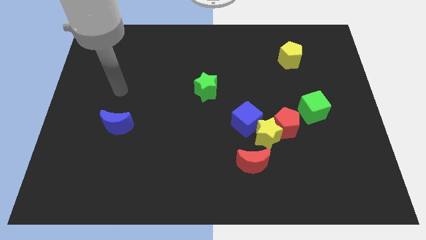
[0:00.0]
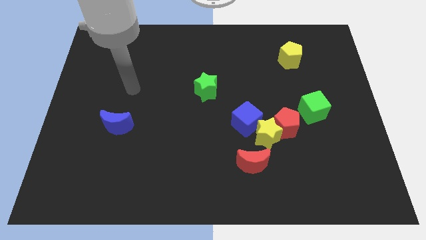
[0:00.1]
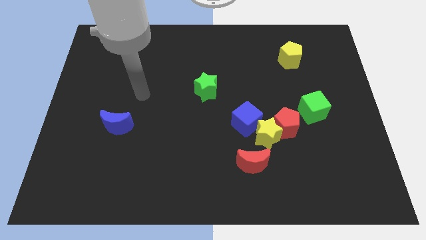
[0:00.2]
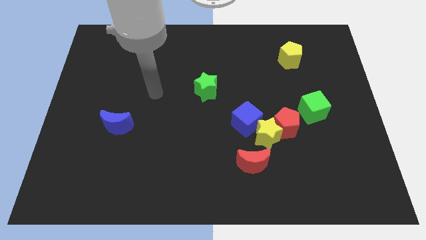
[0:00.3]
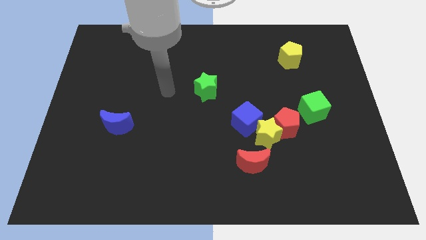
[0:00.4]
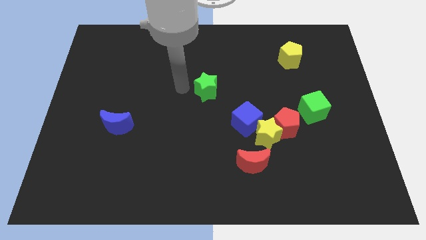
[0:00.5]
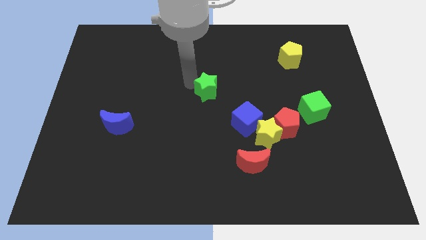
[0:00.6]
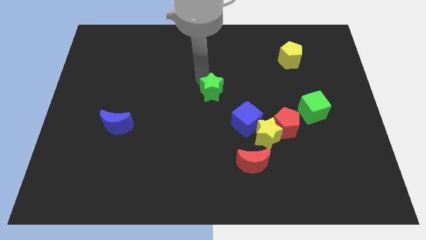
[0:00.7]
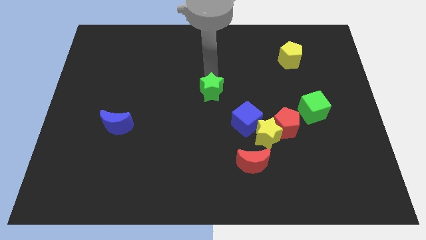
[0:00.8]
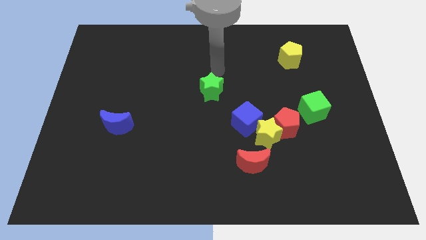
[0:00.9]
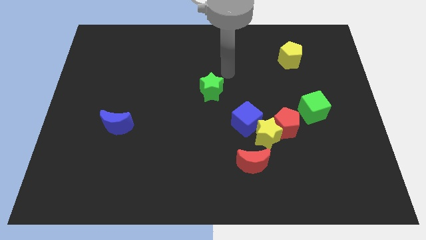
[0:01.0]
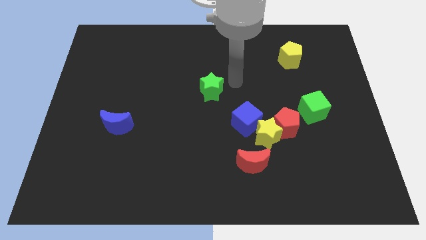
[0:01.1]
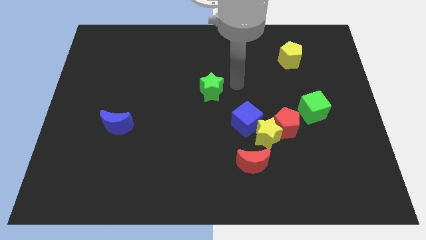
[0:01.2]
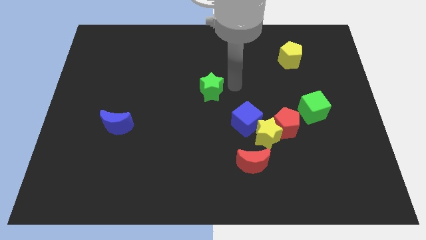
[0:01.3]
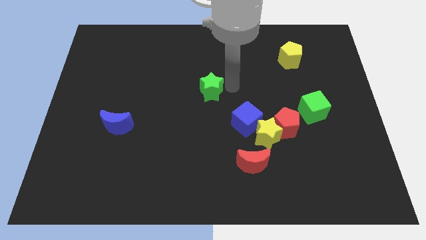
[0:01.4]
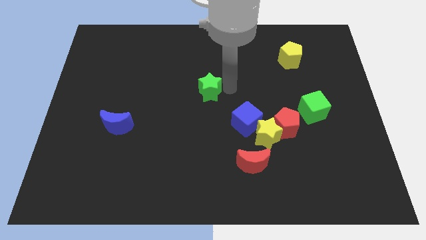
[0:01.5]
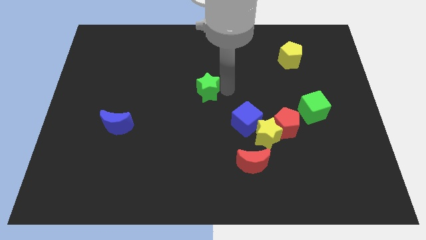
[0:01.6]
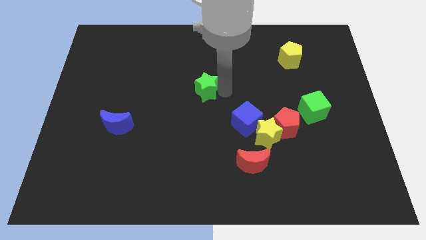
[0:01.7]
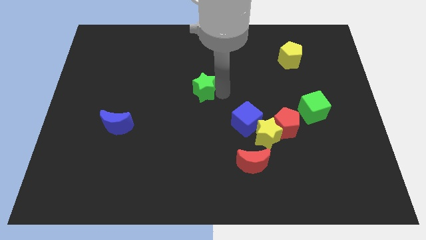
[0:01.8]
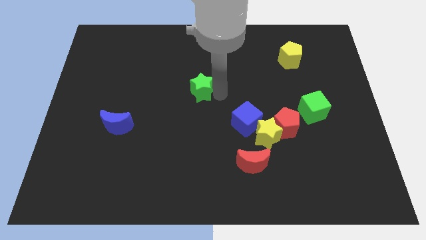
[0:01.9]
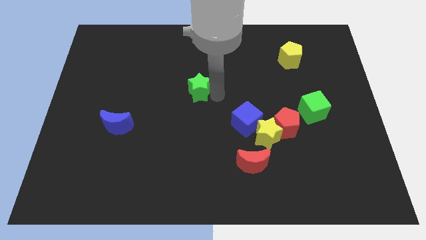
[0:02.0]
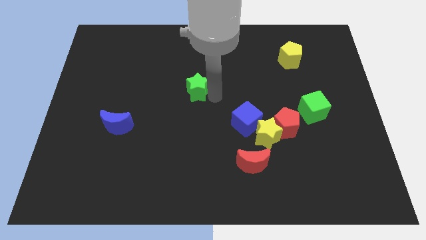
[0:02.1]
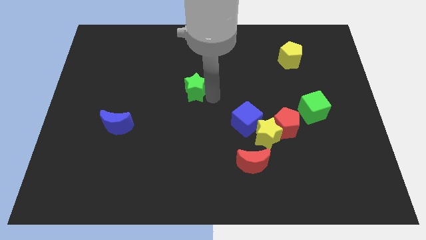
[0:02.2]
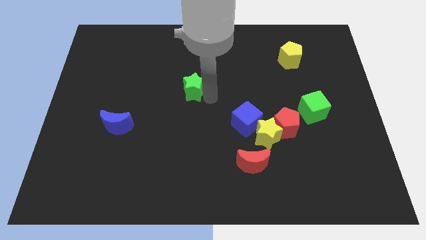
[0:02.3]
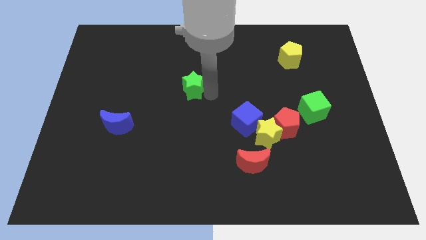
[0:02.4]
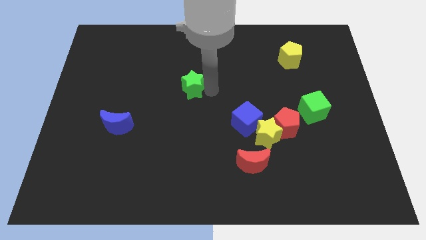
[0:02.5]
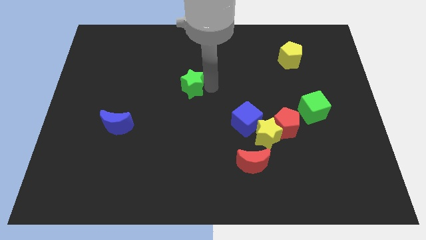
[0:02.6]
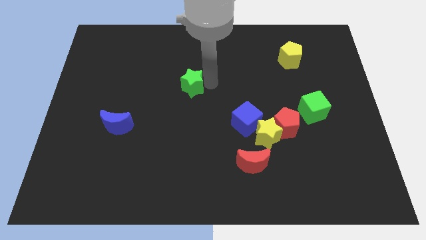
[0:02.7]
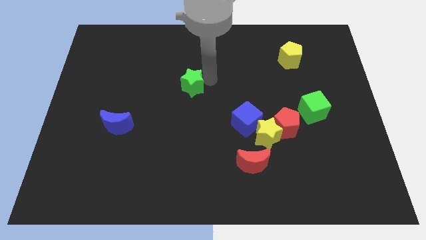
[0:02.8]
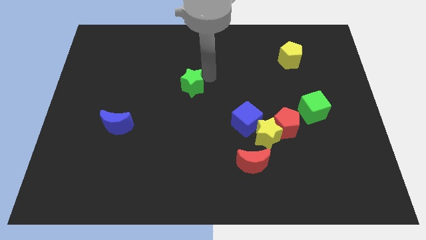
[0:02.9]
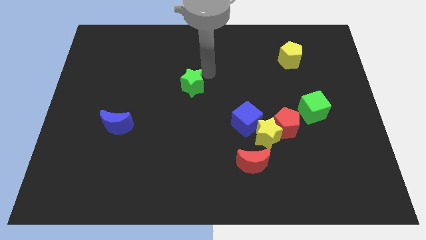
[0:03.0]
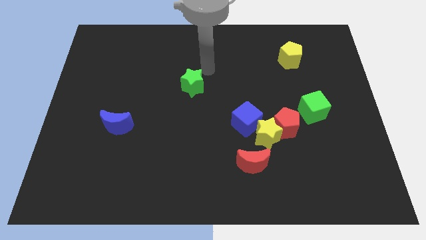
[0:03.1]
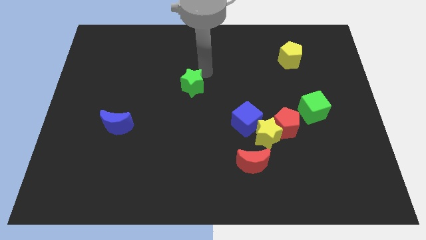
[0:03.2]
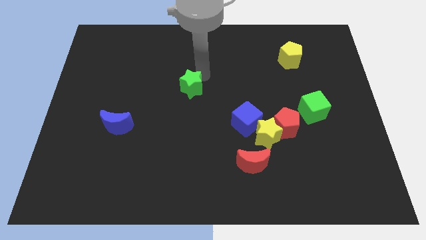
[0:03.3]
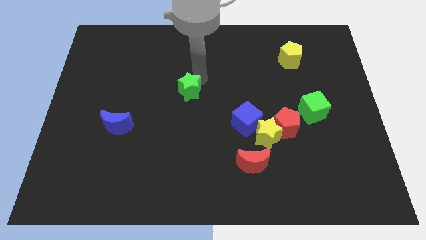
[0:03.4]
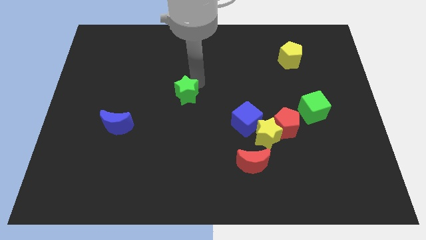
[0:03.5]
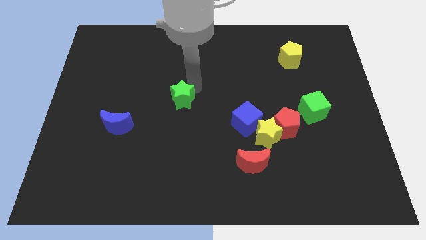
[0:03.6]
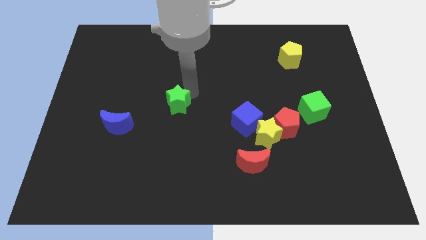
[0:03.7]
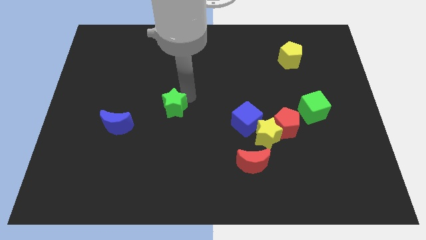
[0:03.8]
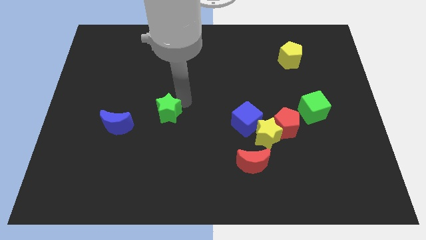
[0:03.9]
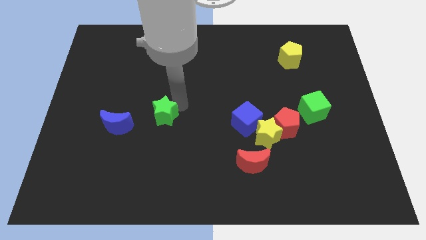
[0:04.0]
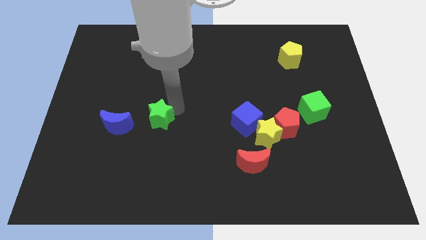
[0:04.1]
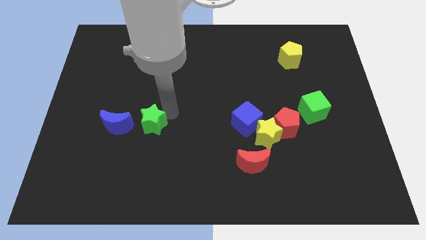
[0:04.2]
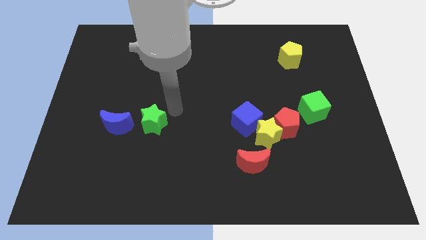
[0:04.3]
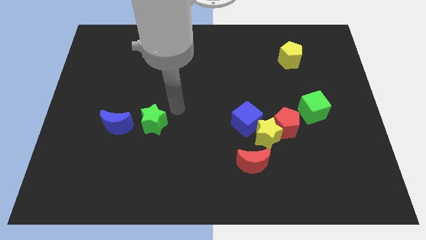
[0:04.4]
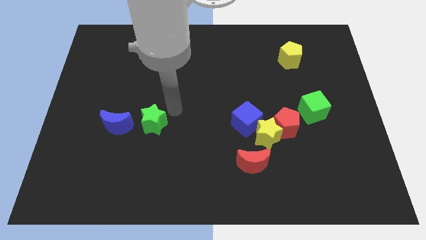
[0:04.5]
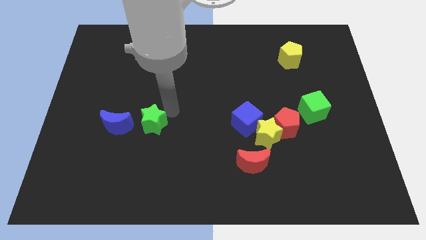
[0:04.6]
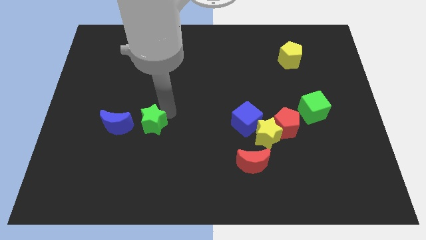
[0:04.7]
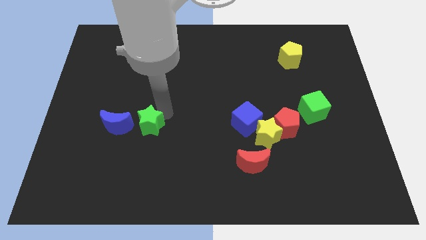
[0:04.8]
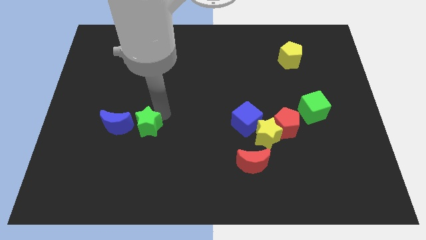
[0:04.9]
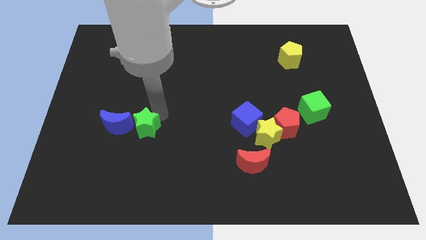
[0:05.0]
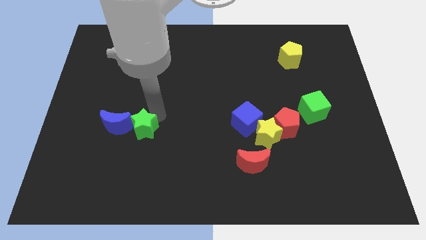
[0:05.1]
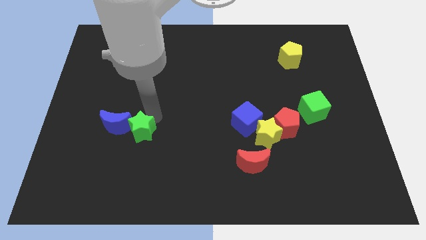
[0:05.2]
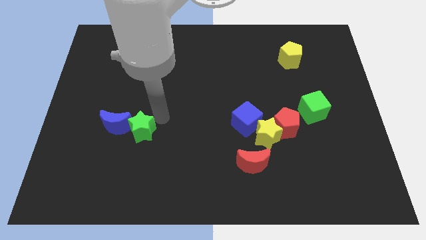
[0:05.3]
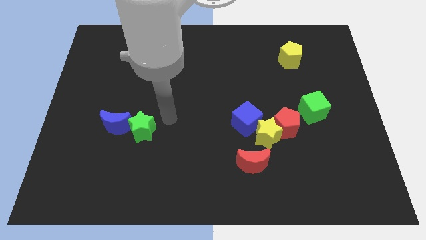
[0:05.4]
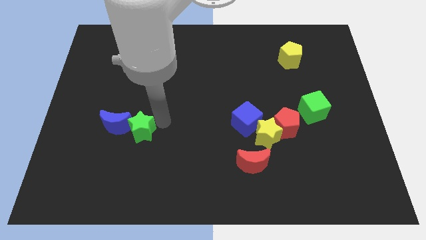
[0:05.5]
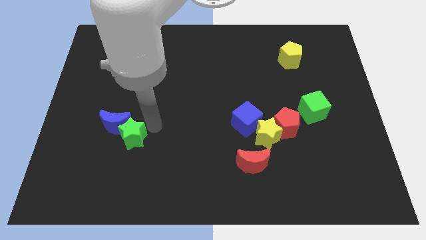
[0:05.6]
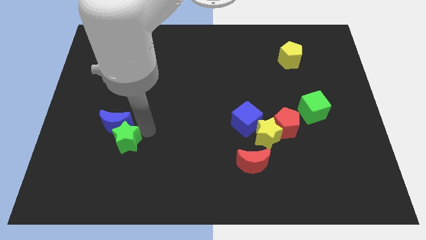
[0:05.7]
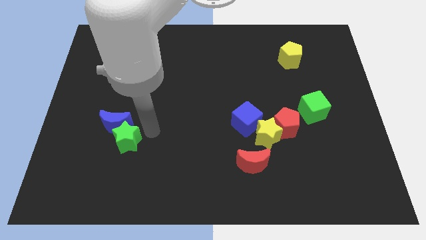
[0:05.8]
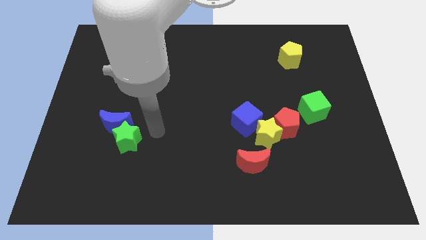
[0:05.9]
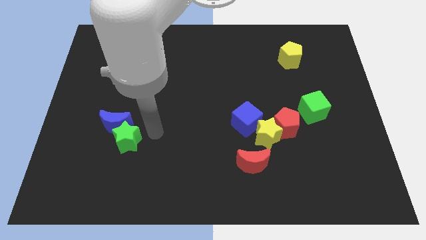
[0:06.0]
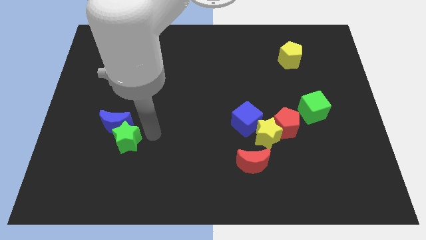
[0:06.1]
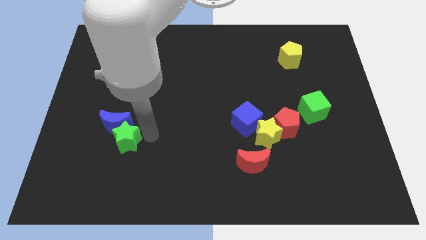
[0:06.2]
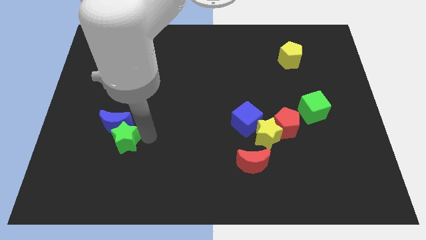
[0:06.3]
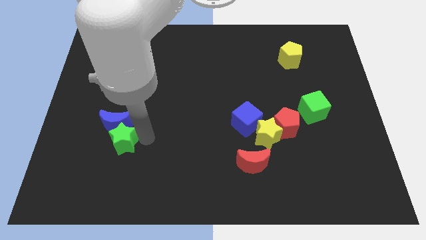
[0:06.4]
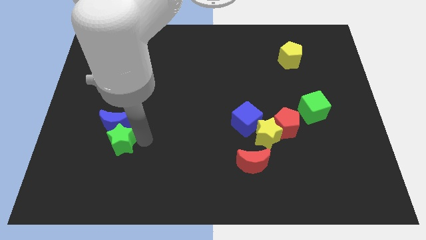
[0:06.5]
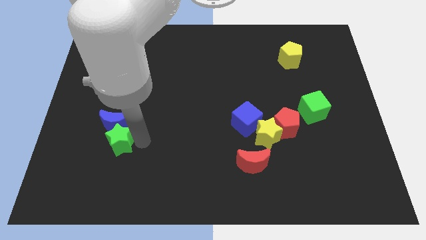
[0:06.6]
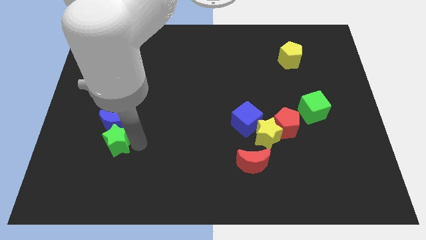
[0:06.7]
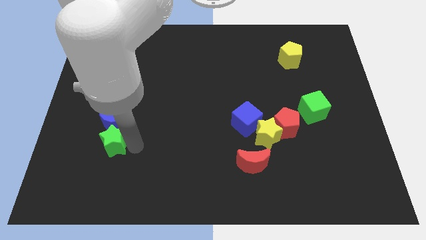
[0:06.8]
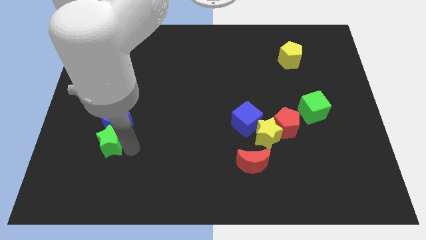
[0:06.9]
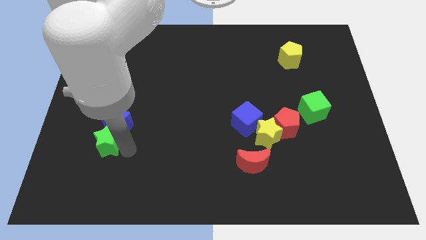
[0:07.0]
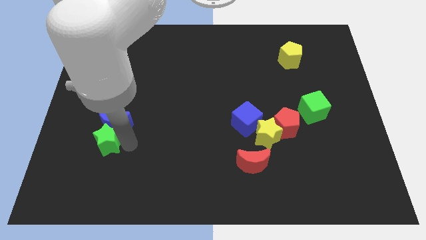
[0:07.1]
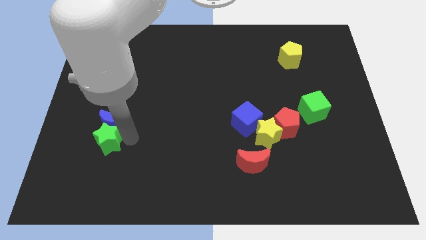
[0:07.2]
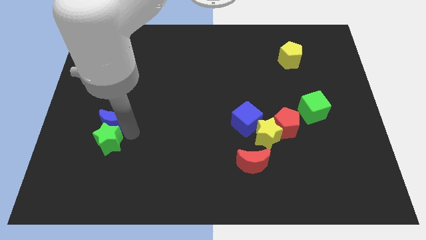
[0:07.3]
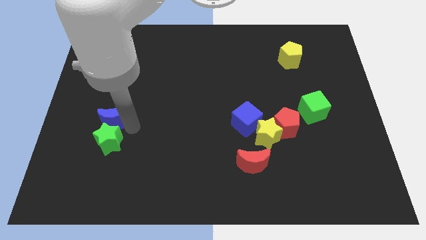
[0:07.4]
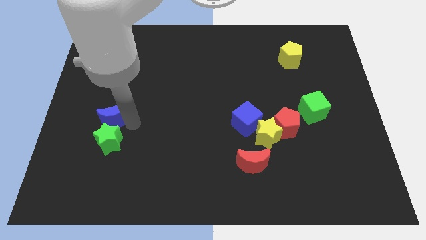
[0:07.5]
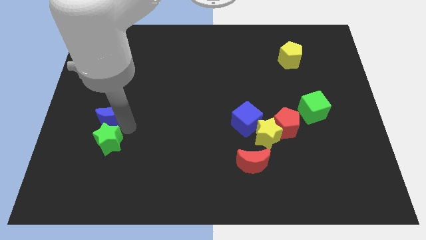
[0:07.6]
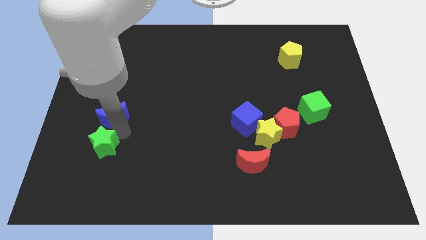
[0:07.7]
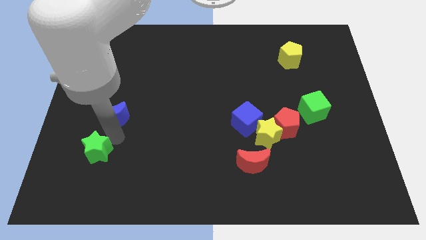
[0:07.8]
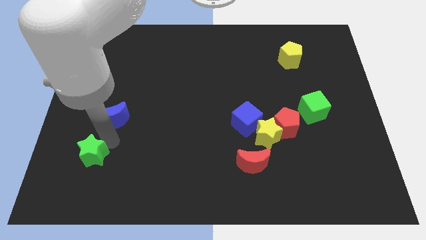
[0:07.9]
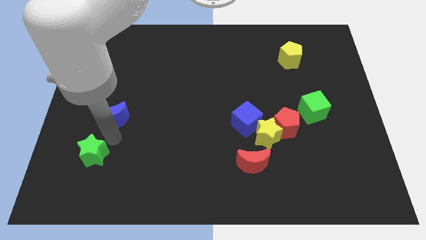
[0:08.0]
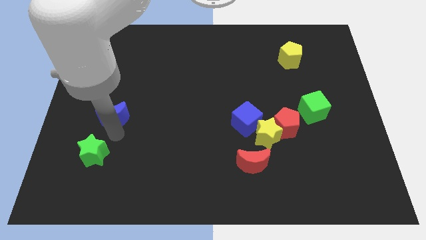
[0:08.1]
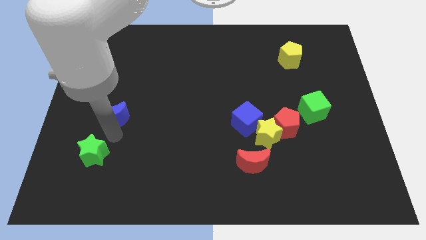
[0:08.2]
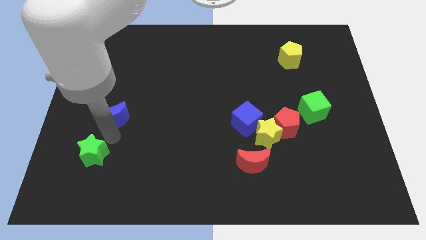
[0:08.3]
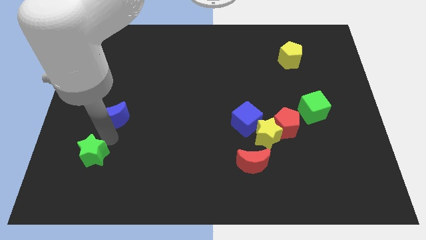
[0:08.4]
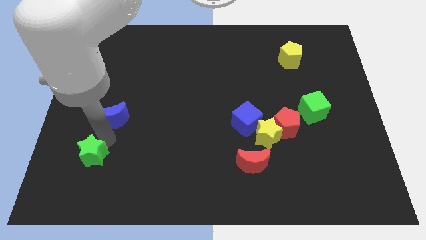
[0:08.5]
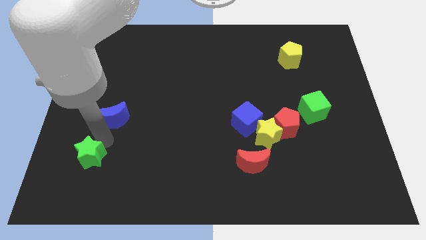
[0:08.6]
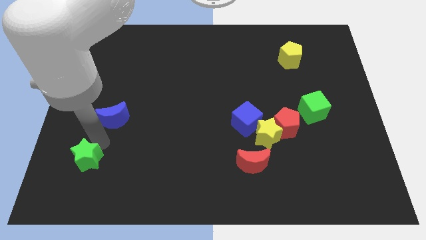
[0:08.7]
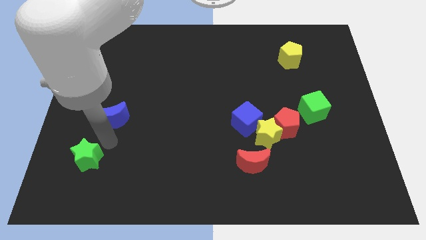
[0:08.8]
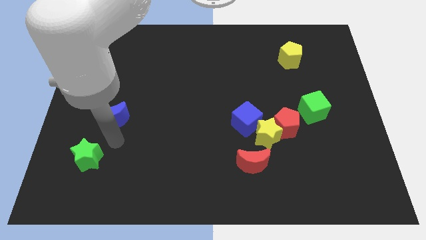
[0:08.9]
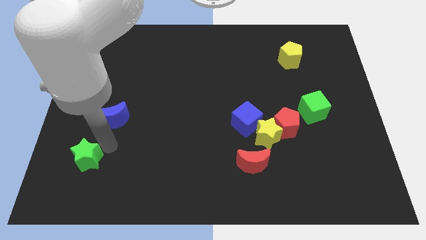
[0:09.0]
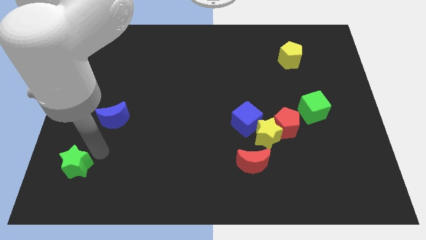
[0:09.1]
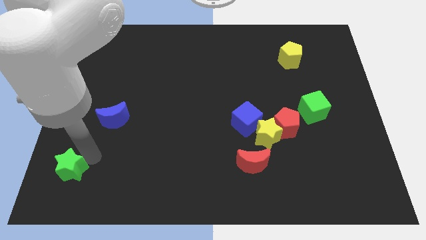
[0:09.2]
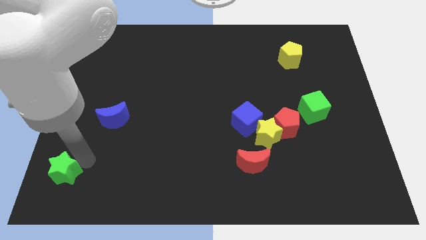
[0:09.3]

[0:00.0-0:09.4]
move the green star to the bottom left of the board
